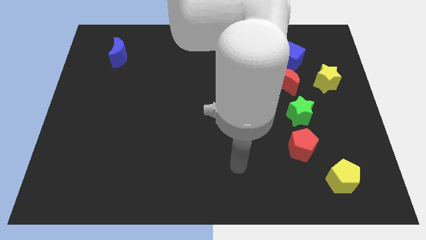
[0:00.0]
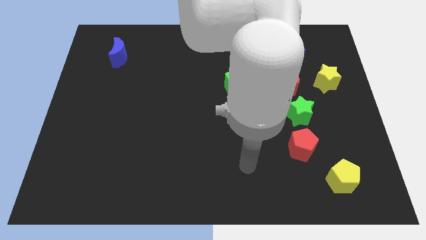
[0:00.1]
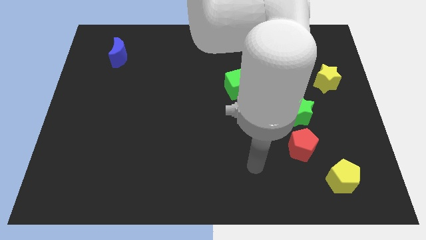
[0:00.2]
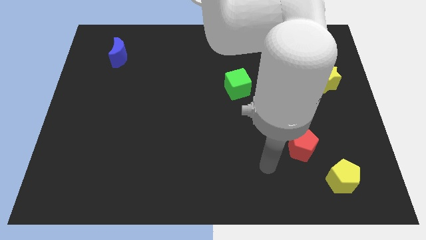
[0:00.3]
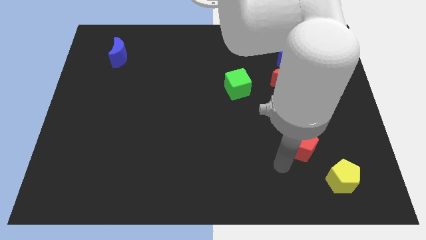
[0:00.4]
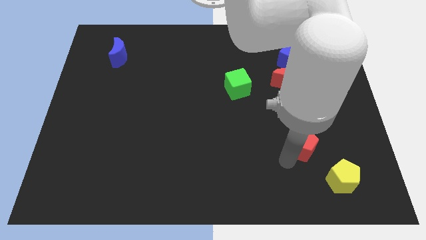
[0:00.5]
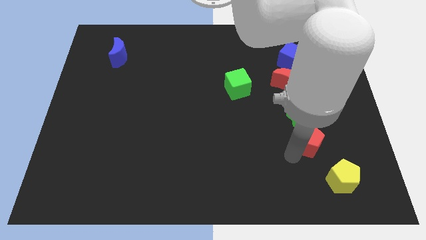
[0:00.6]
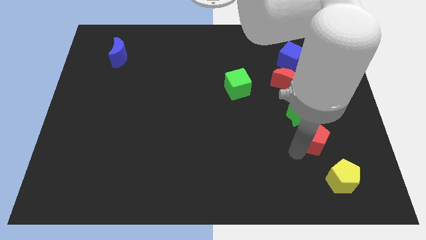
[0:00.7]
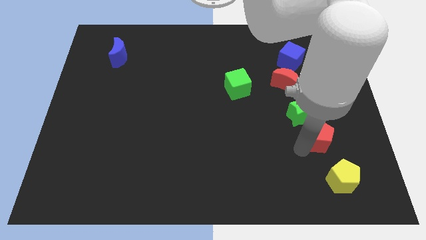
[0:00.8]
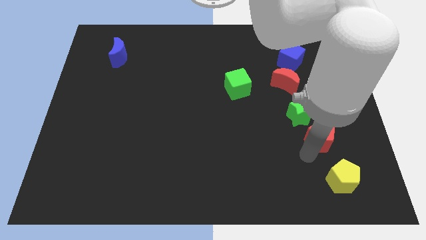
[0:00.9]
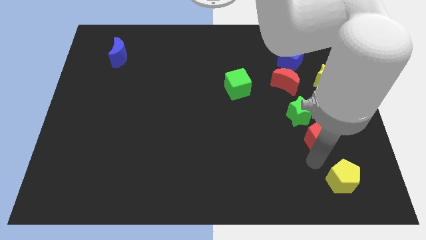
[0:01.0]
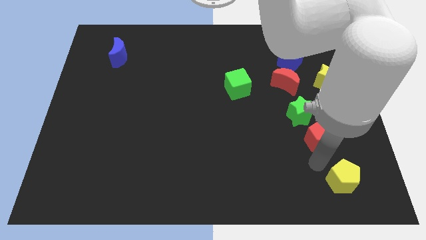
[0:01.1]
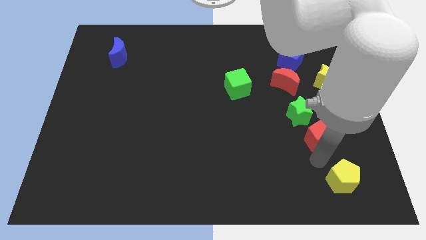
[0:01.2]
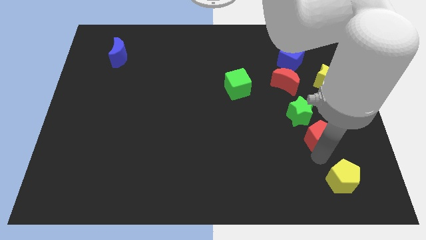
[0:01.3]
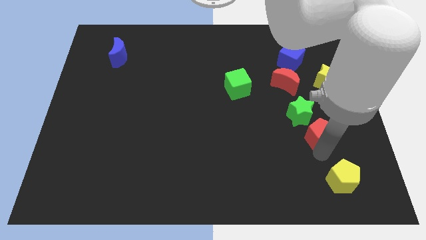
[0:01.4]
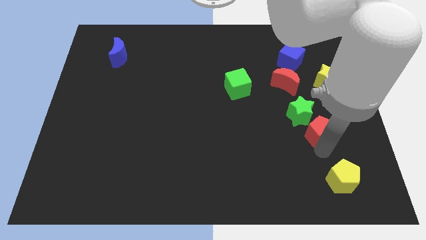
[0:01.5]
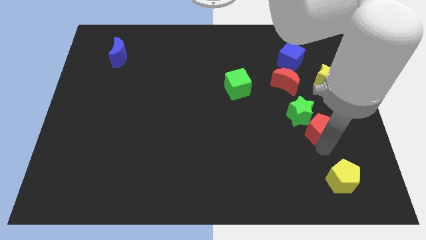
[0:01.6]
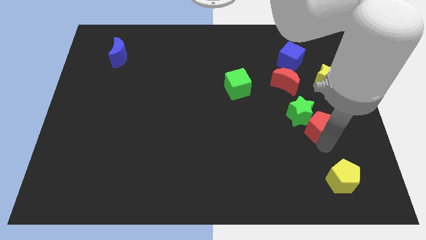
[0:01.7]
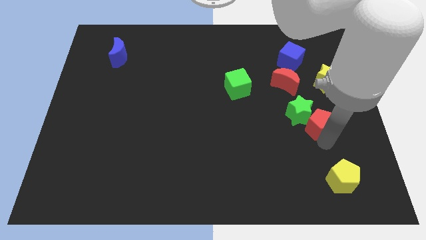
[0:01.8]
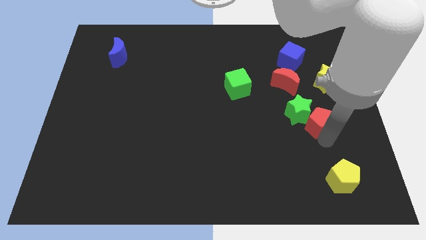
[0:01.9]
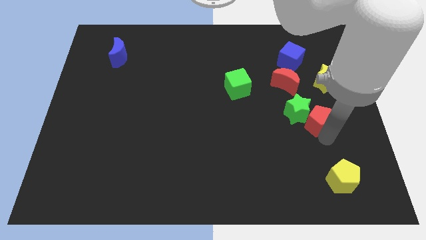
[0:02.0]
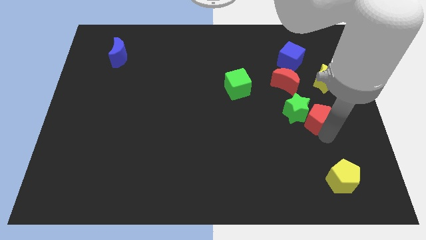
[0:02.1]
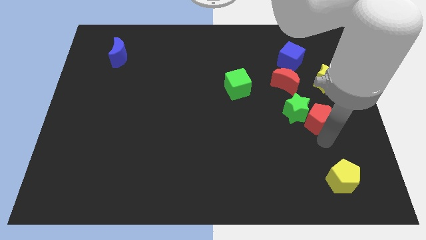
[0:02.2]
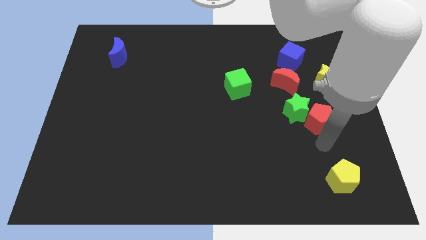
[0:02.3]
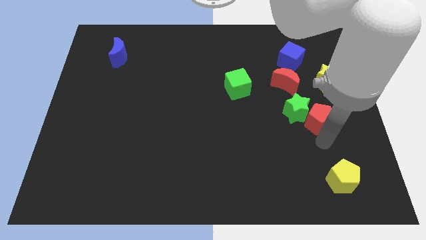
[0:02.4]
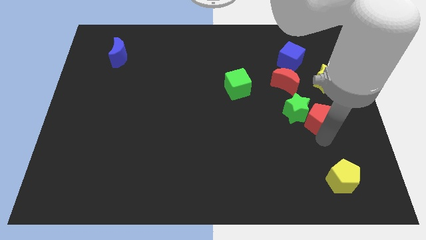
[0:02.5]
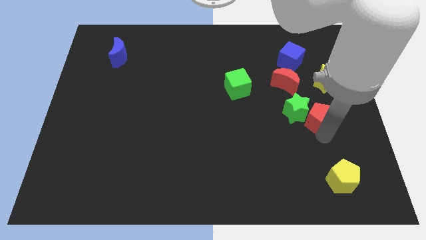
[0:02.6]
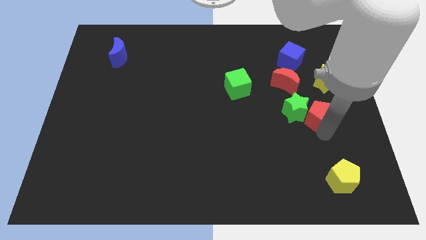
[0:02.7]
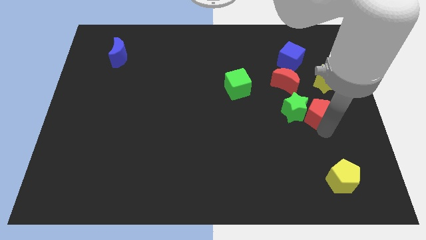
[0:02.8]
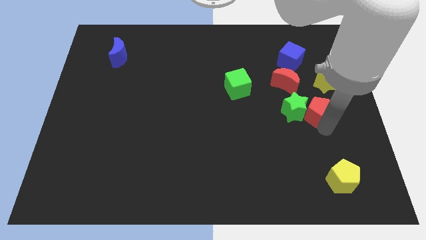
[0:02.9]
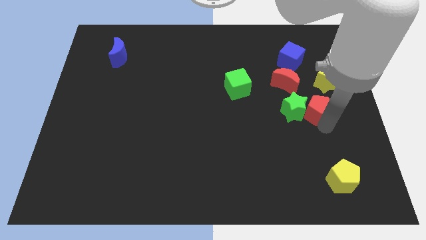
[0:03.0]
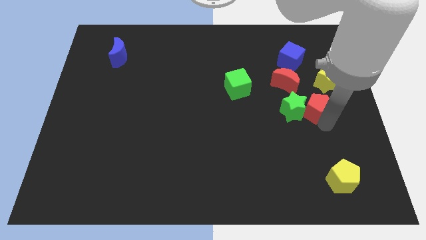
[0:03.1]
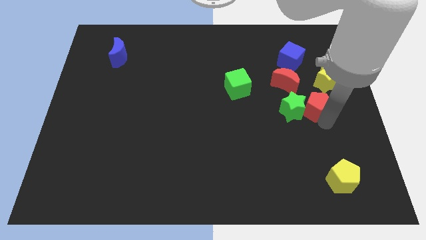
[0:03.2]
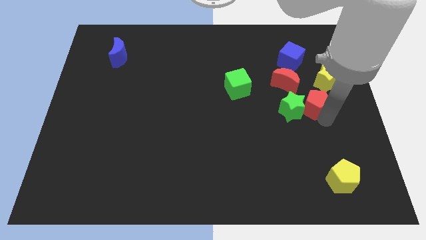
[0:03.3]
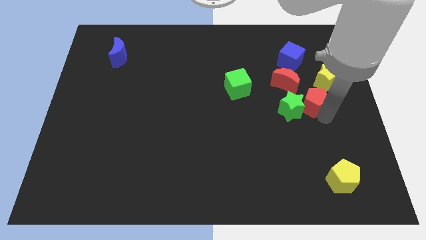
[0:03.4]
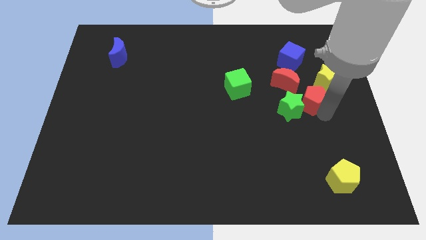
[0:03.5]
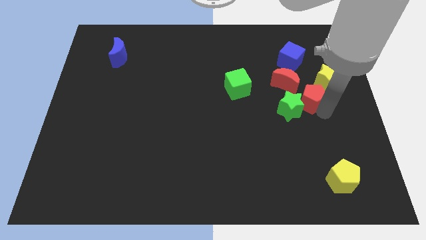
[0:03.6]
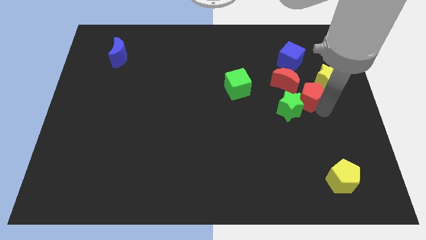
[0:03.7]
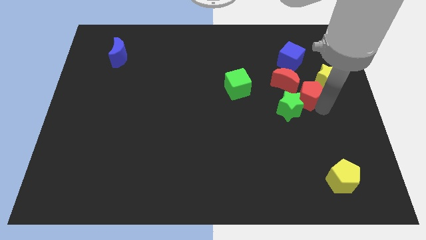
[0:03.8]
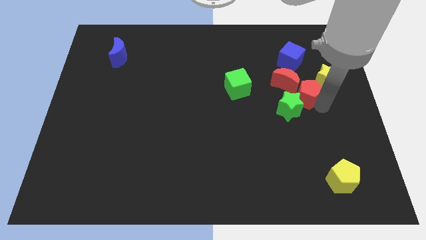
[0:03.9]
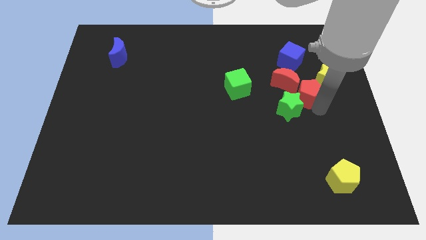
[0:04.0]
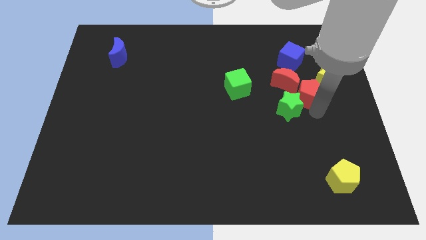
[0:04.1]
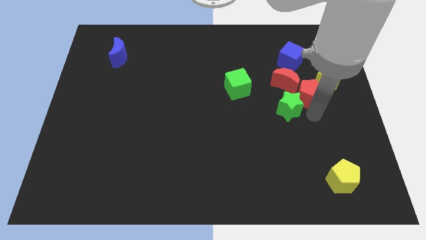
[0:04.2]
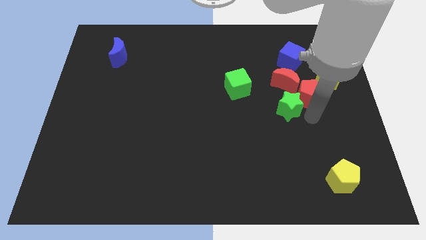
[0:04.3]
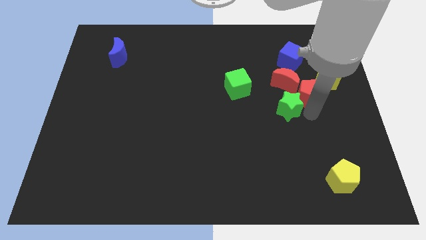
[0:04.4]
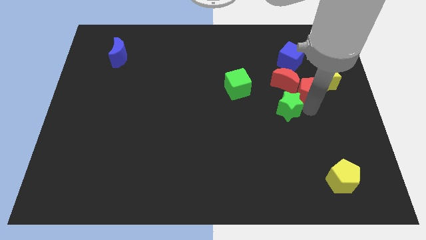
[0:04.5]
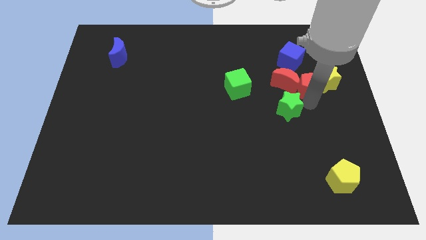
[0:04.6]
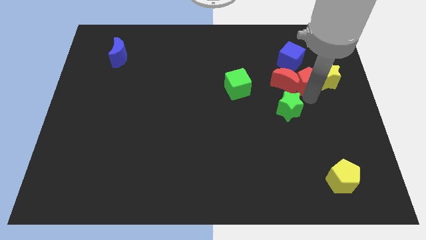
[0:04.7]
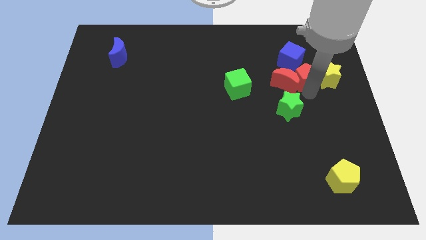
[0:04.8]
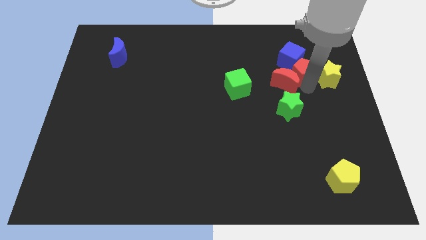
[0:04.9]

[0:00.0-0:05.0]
slide the red pentagon to the blue cube

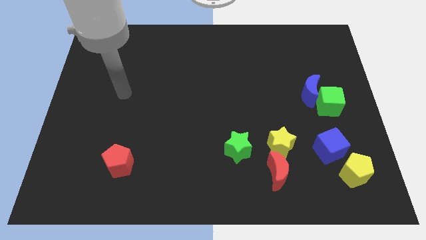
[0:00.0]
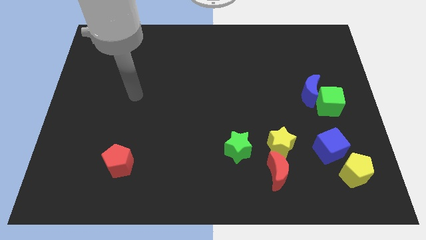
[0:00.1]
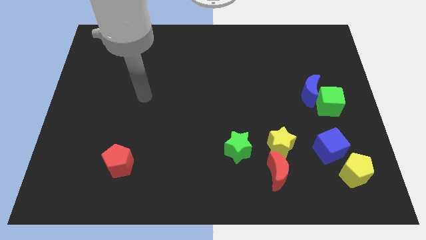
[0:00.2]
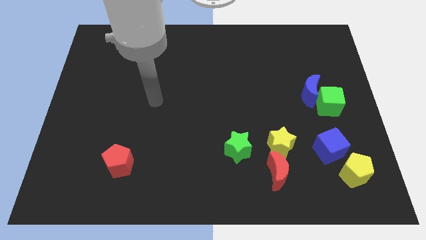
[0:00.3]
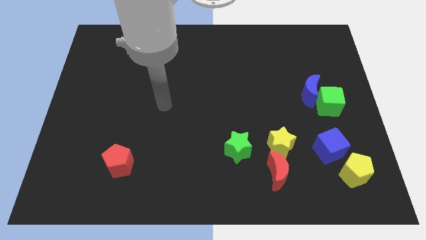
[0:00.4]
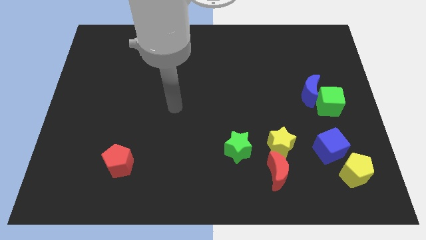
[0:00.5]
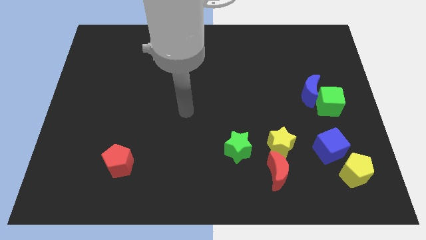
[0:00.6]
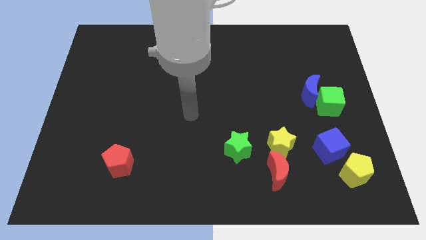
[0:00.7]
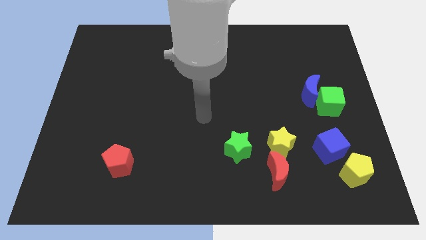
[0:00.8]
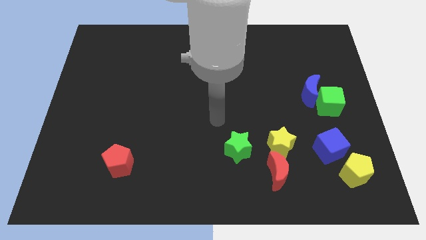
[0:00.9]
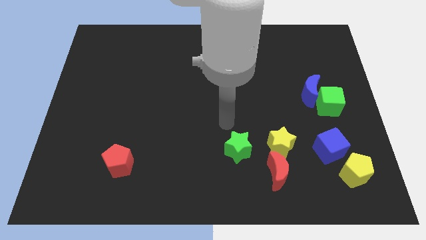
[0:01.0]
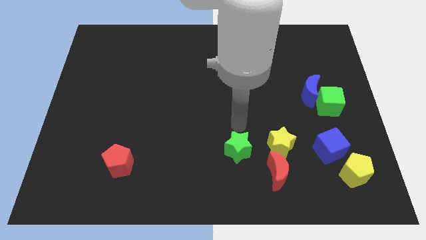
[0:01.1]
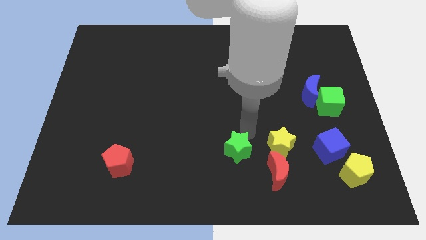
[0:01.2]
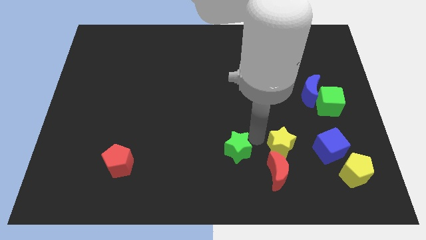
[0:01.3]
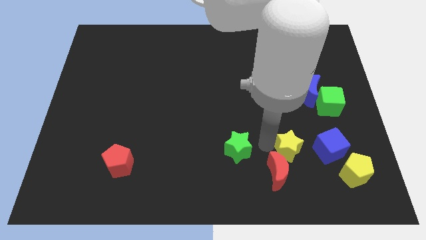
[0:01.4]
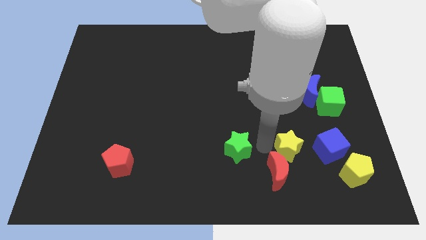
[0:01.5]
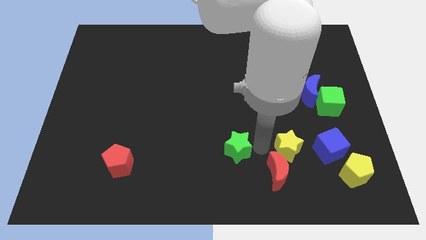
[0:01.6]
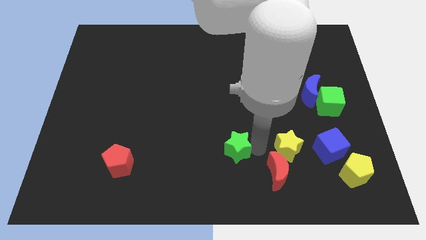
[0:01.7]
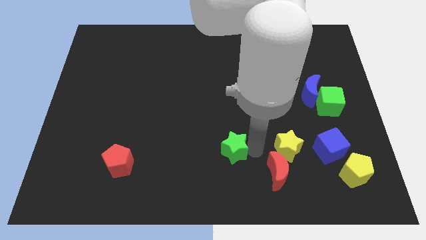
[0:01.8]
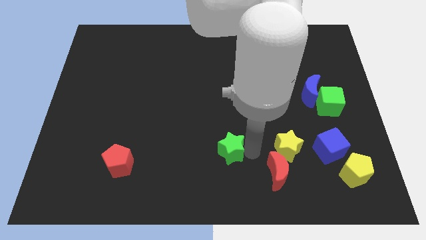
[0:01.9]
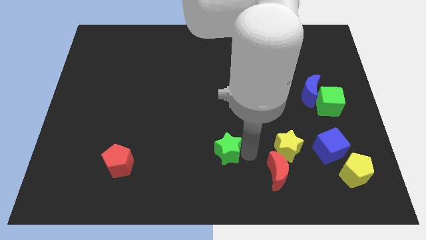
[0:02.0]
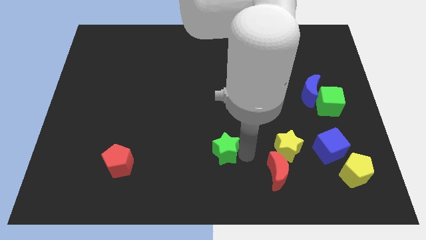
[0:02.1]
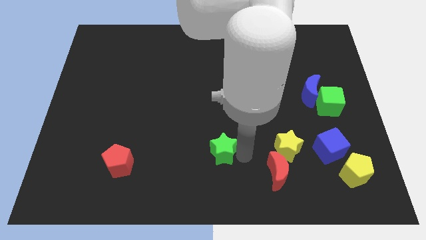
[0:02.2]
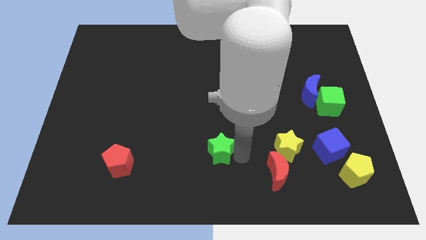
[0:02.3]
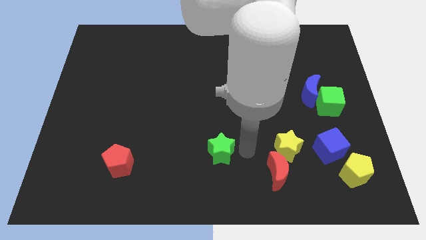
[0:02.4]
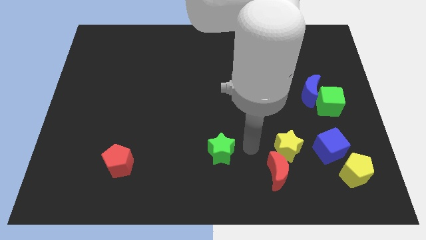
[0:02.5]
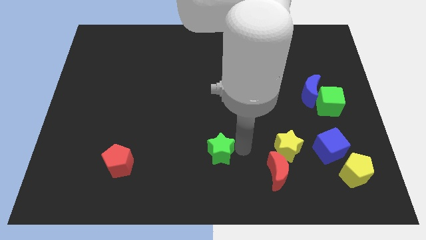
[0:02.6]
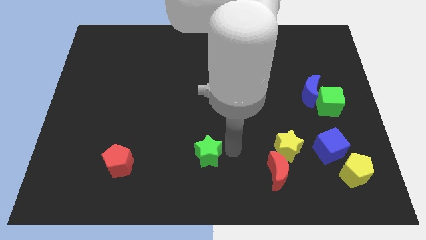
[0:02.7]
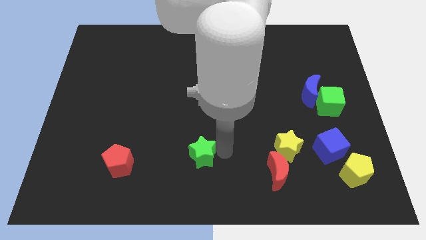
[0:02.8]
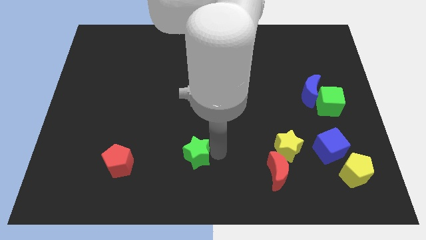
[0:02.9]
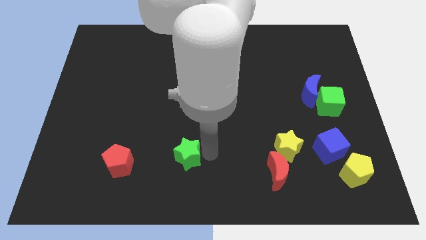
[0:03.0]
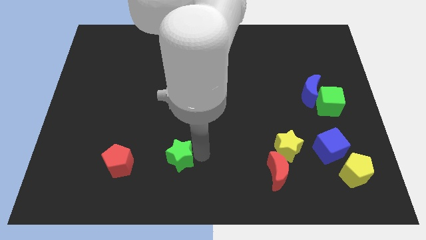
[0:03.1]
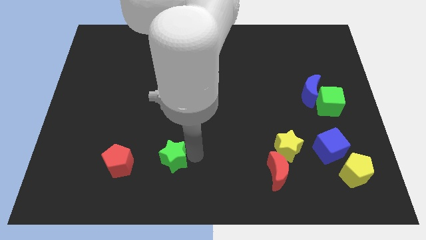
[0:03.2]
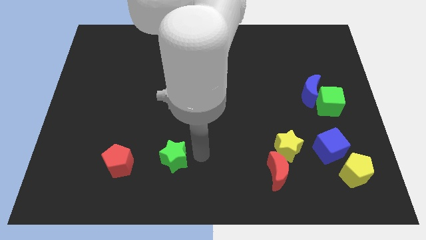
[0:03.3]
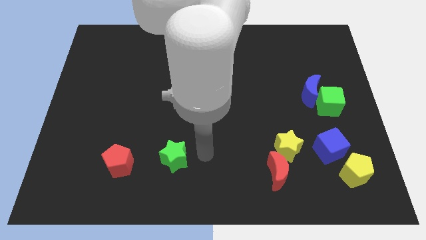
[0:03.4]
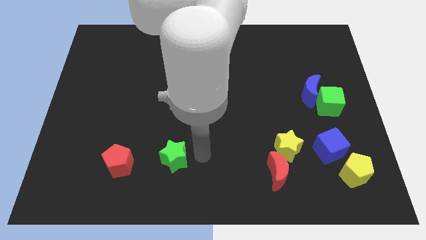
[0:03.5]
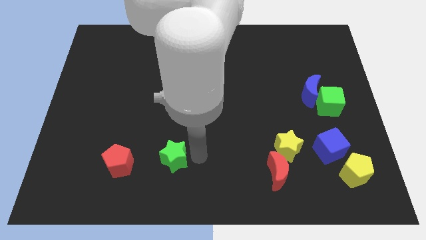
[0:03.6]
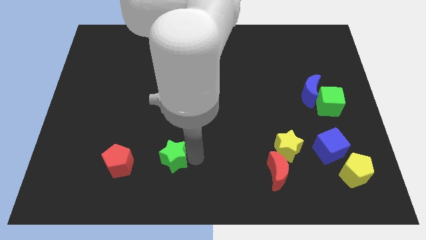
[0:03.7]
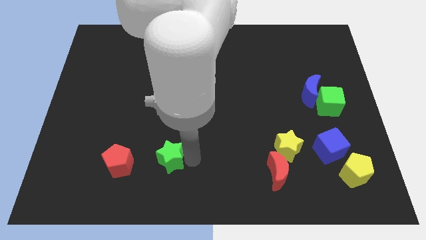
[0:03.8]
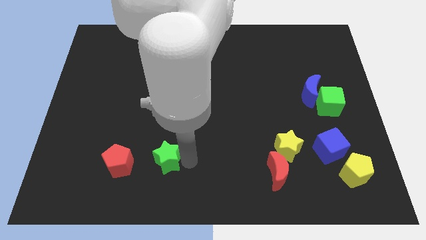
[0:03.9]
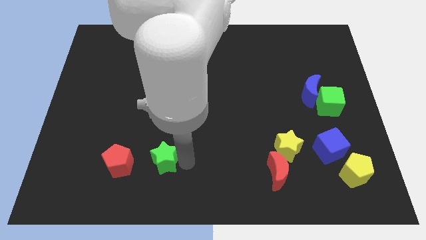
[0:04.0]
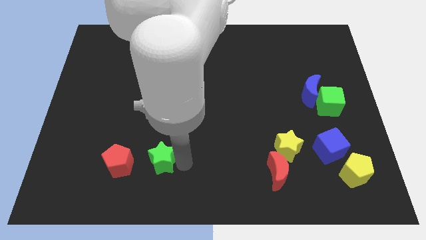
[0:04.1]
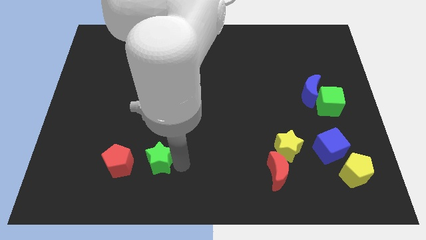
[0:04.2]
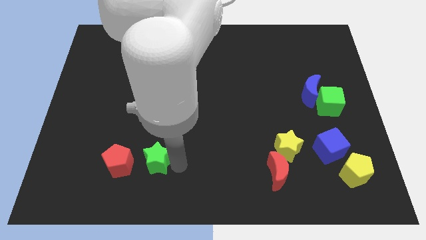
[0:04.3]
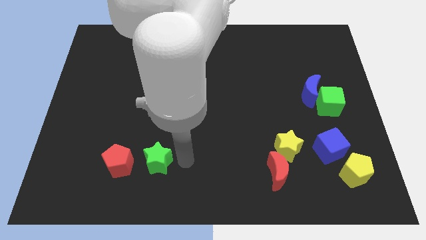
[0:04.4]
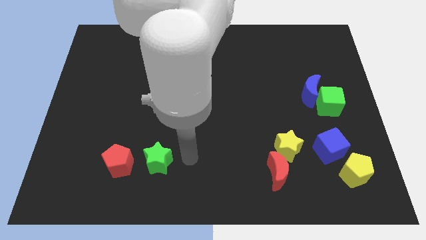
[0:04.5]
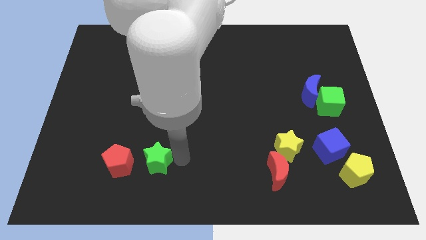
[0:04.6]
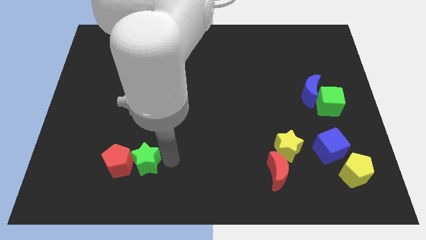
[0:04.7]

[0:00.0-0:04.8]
slide the green star to the red pentagon
